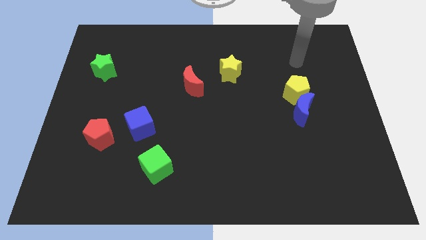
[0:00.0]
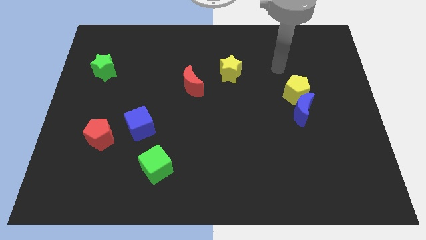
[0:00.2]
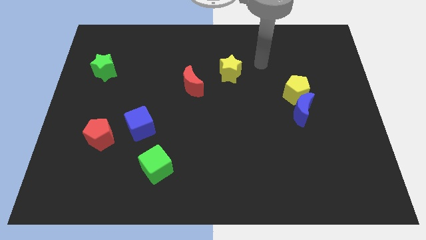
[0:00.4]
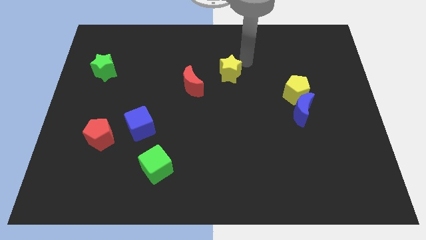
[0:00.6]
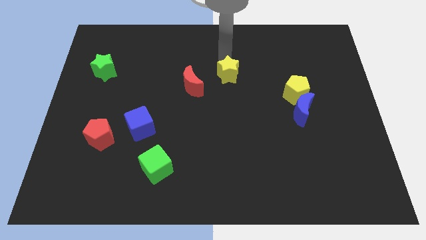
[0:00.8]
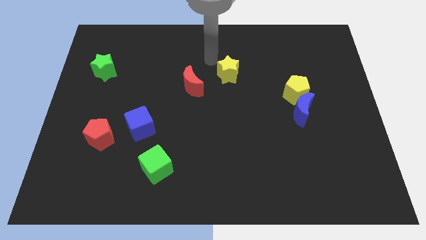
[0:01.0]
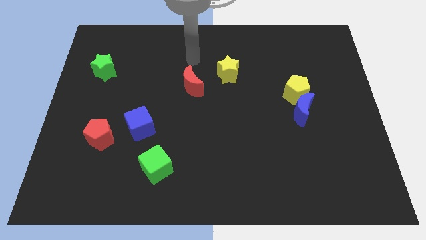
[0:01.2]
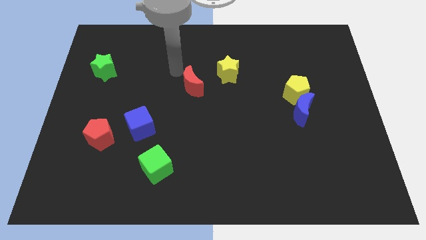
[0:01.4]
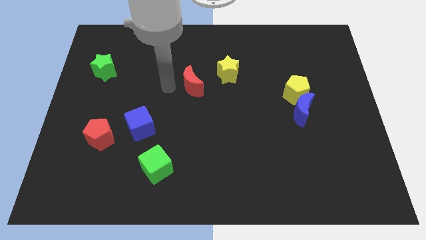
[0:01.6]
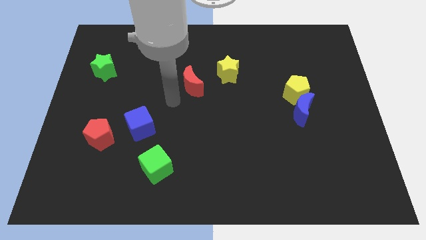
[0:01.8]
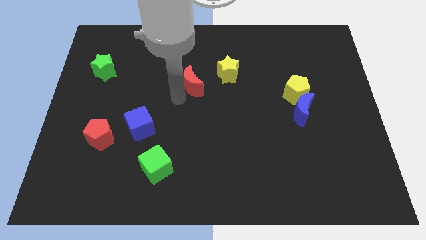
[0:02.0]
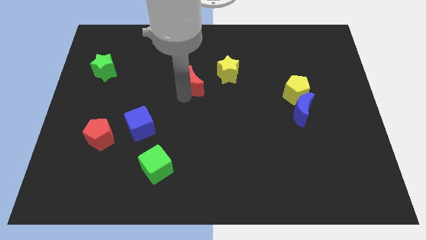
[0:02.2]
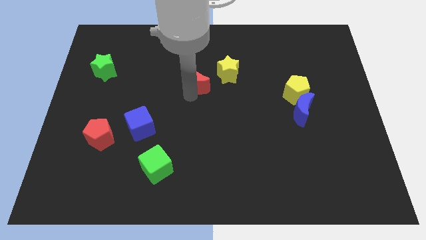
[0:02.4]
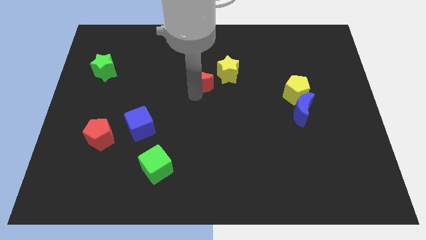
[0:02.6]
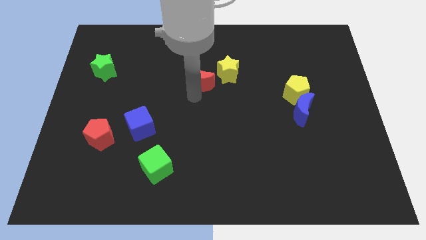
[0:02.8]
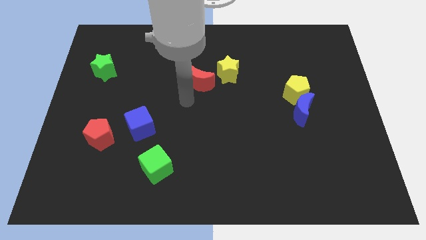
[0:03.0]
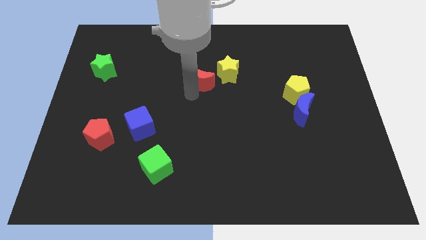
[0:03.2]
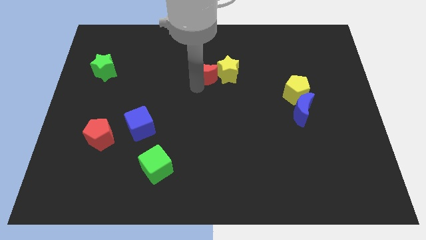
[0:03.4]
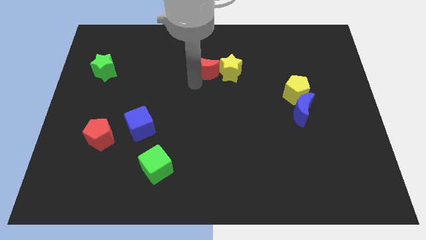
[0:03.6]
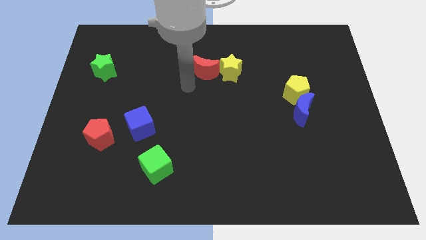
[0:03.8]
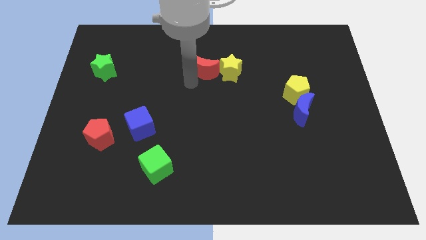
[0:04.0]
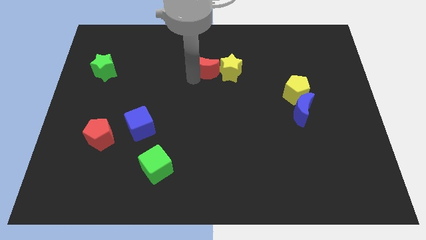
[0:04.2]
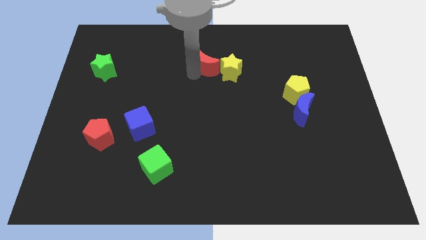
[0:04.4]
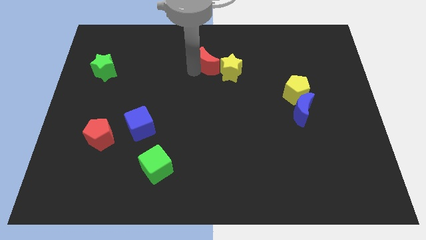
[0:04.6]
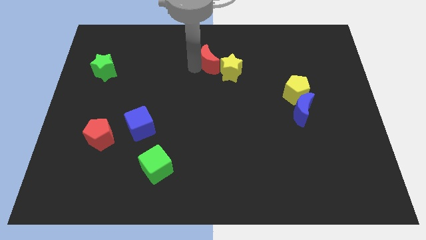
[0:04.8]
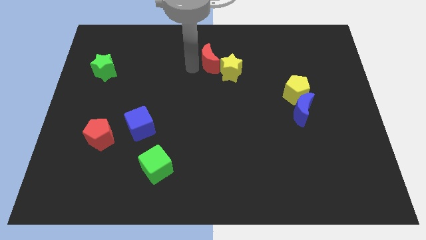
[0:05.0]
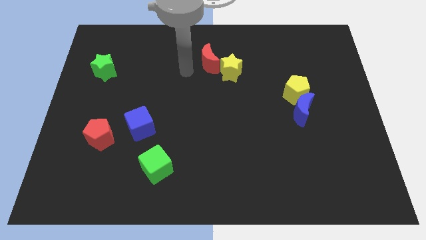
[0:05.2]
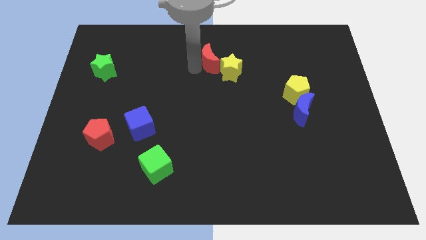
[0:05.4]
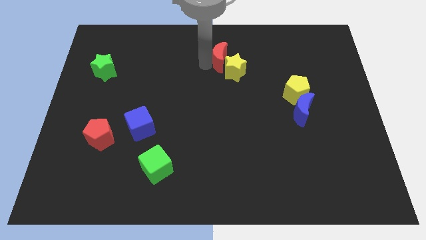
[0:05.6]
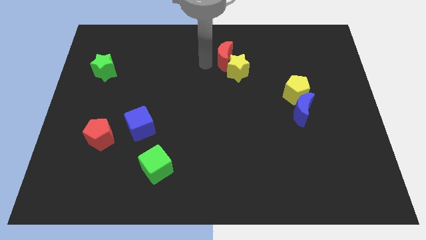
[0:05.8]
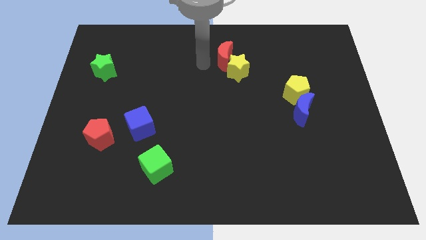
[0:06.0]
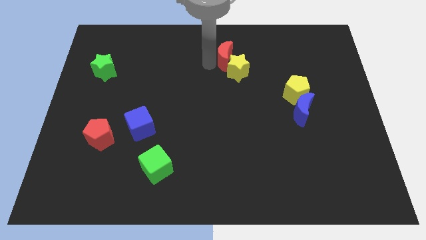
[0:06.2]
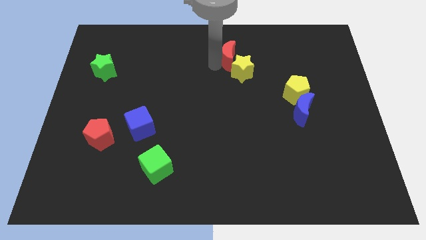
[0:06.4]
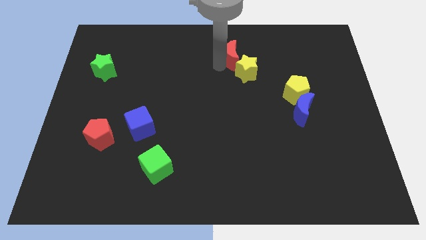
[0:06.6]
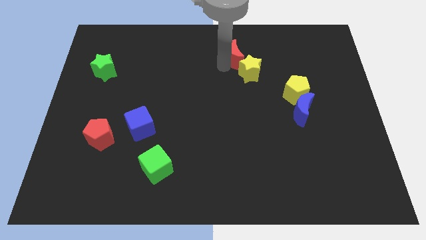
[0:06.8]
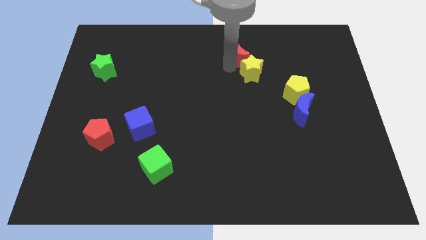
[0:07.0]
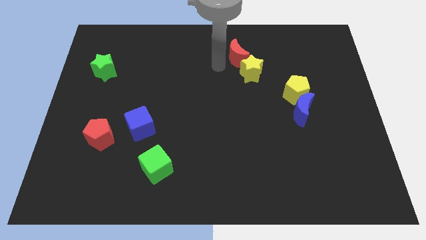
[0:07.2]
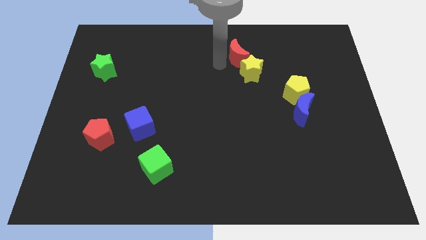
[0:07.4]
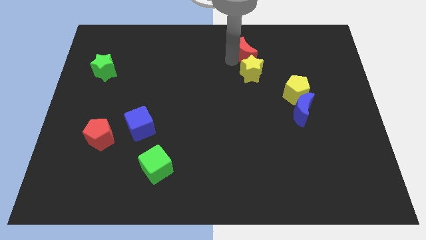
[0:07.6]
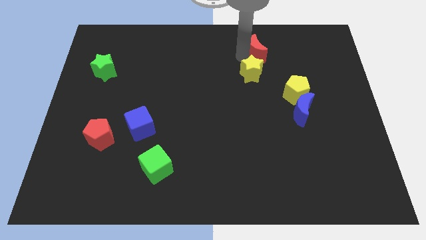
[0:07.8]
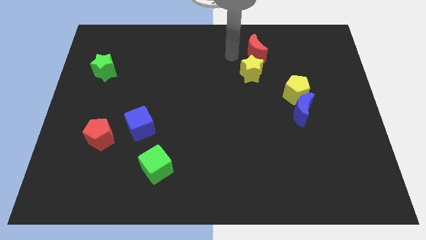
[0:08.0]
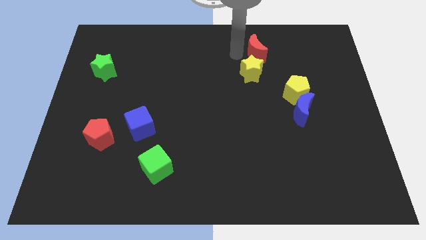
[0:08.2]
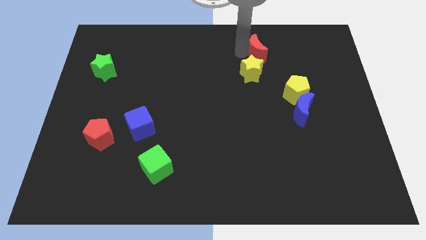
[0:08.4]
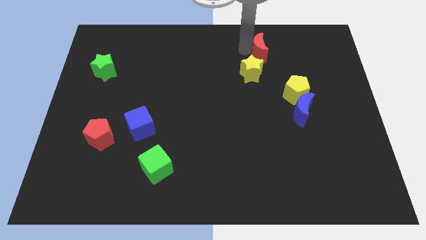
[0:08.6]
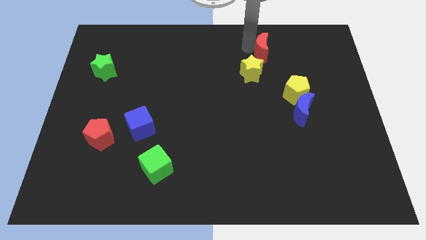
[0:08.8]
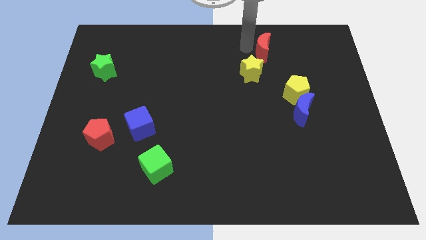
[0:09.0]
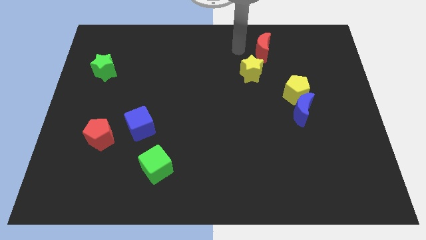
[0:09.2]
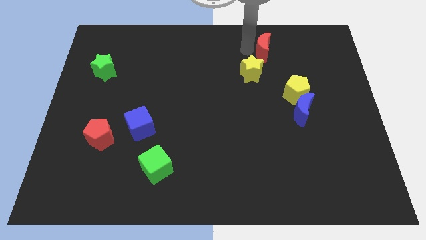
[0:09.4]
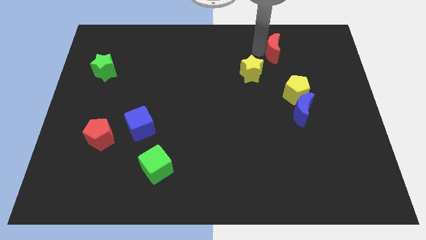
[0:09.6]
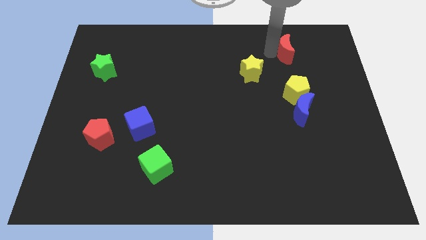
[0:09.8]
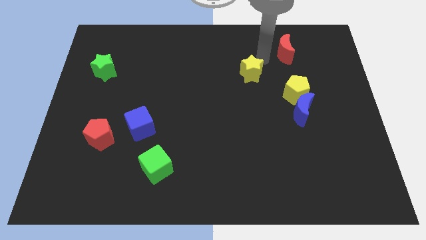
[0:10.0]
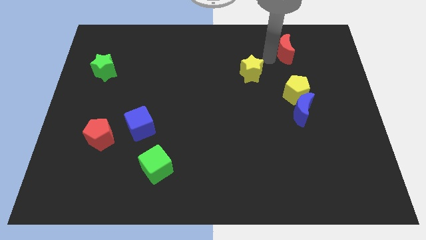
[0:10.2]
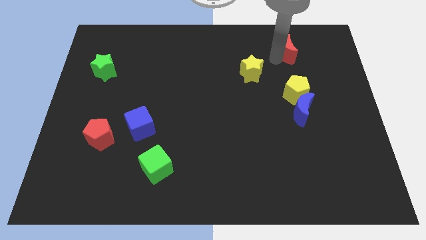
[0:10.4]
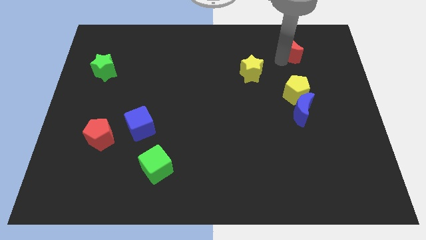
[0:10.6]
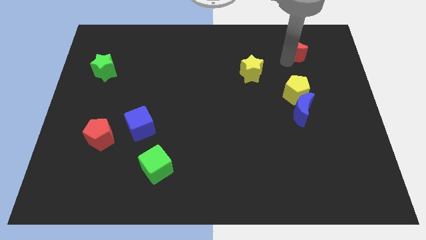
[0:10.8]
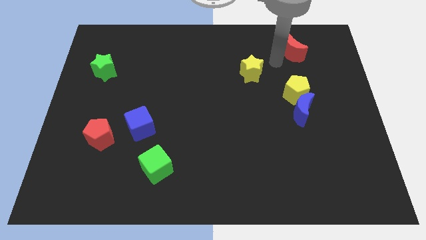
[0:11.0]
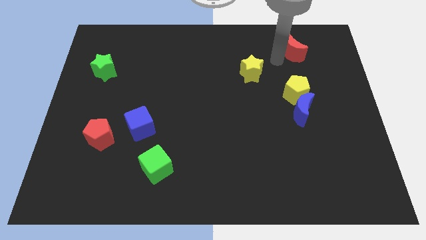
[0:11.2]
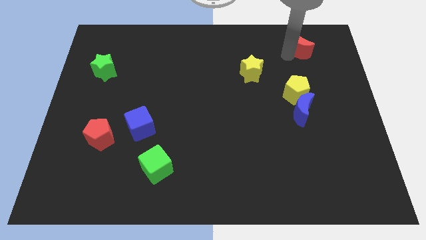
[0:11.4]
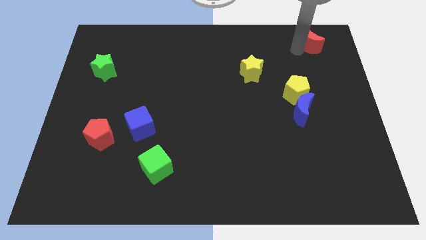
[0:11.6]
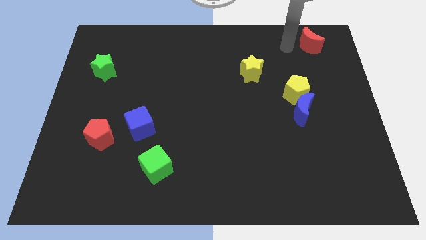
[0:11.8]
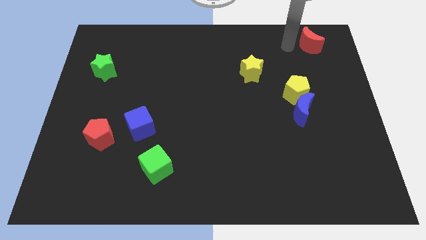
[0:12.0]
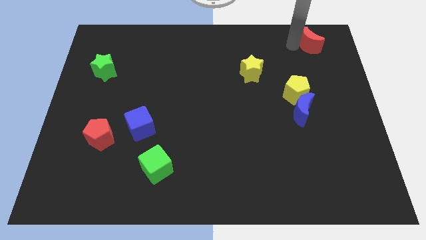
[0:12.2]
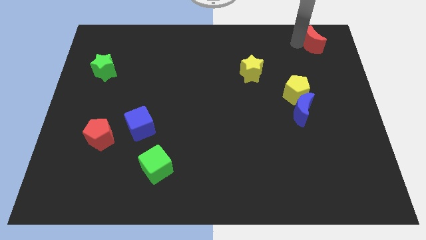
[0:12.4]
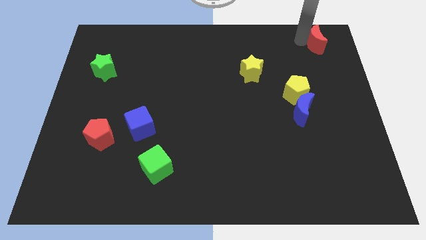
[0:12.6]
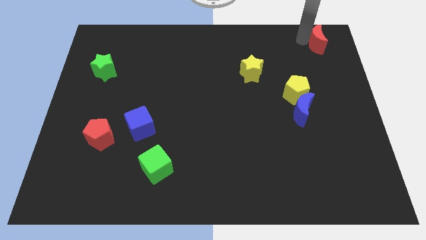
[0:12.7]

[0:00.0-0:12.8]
slide the red moon to the top right corner
